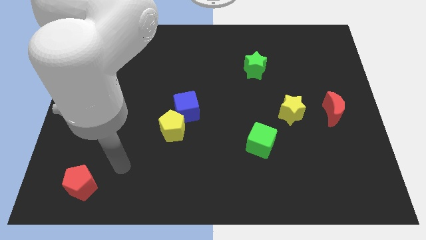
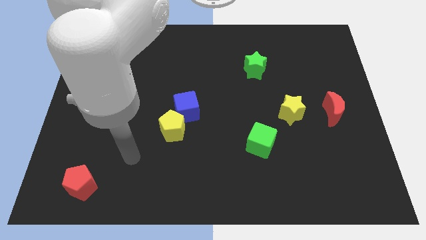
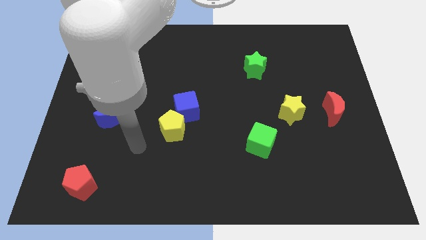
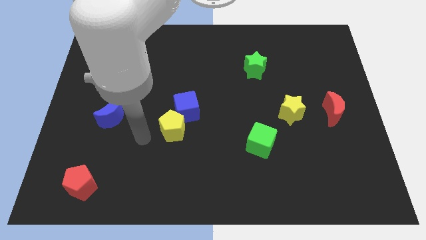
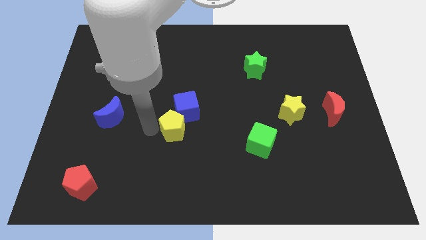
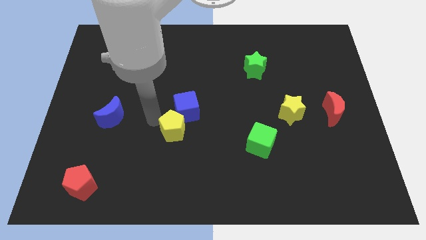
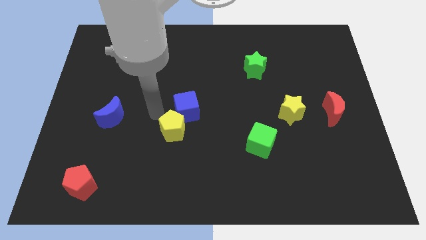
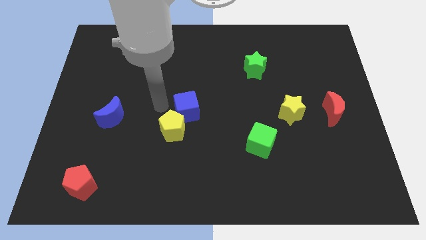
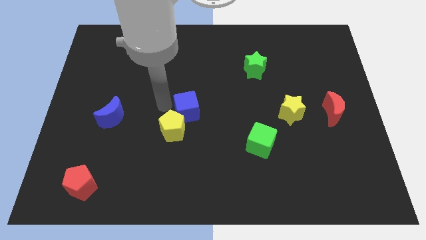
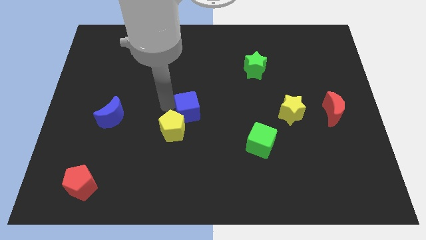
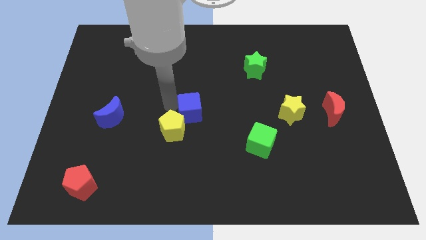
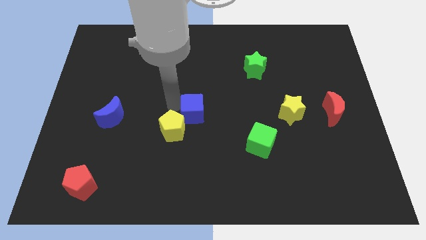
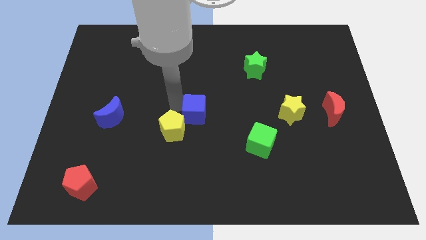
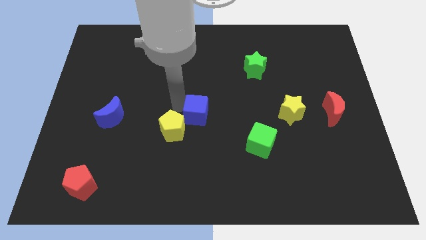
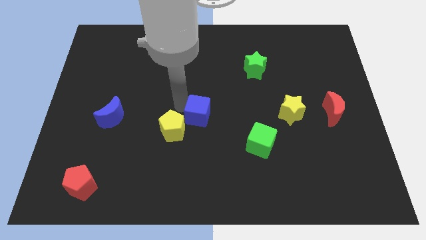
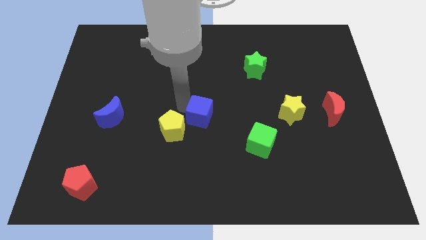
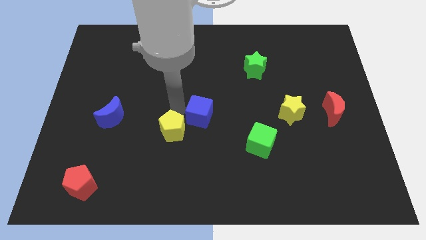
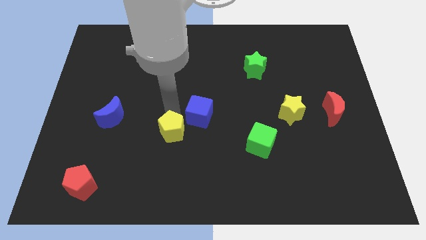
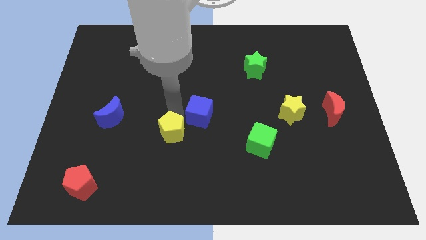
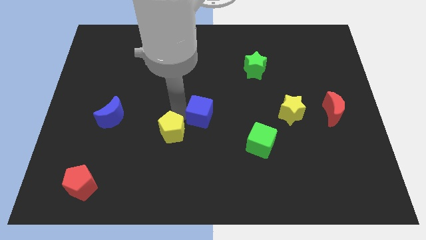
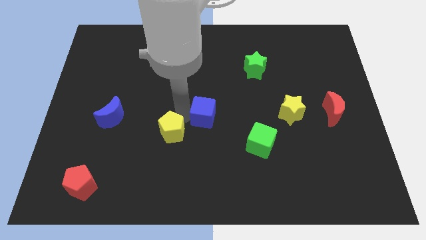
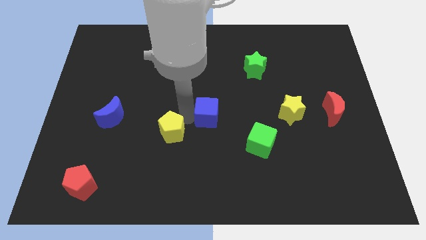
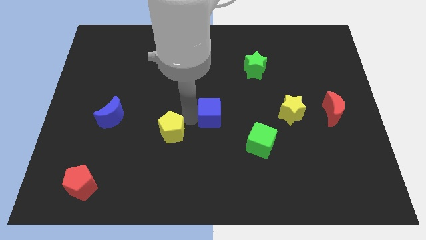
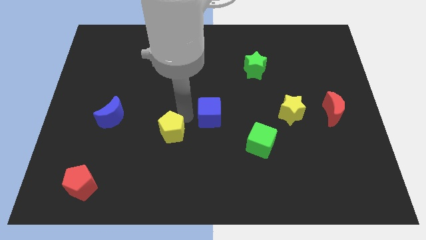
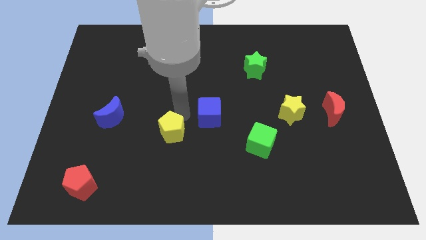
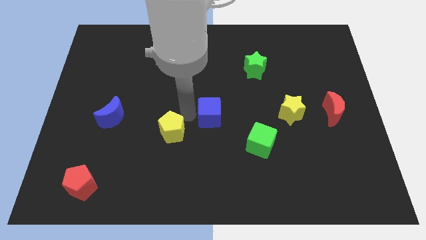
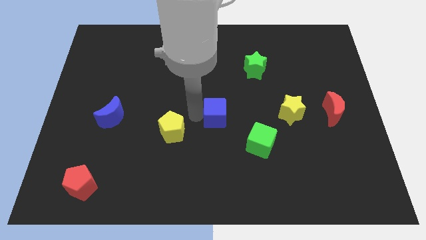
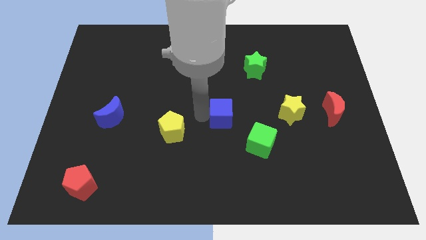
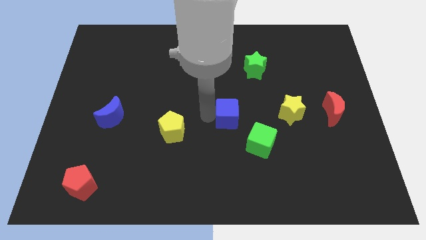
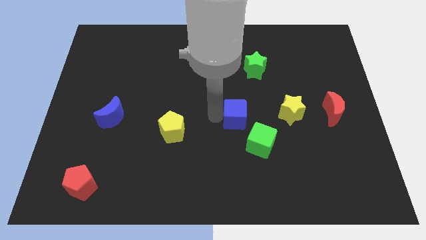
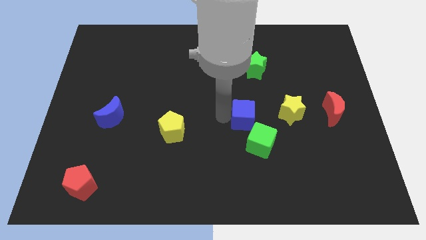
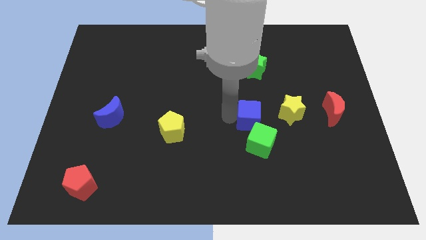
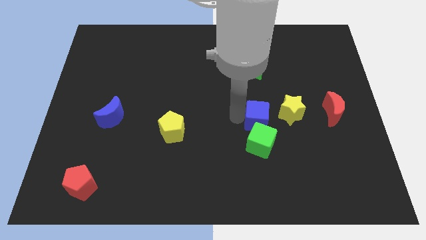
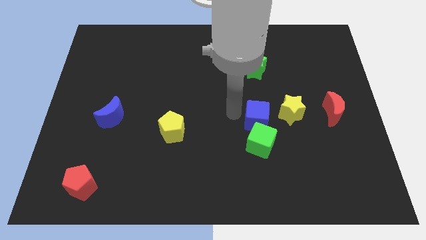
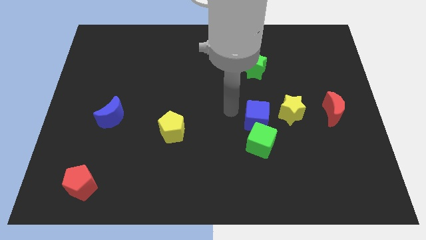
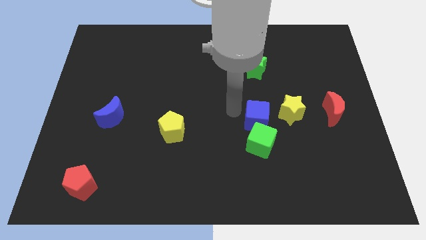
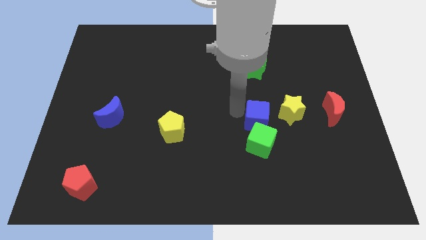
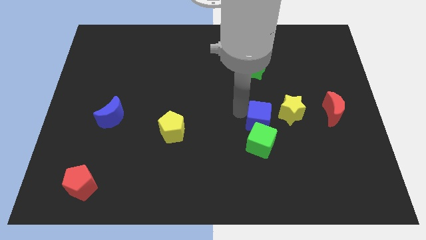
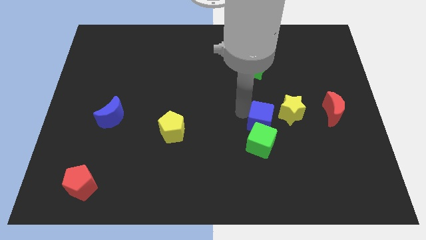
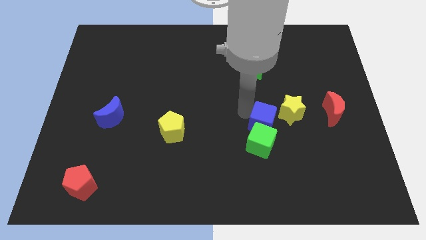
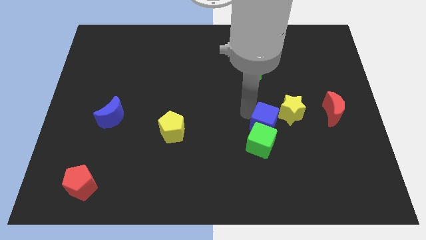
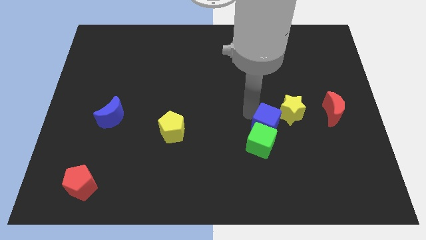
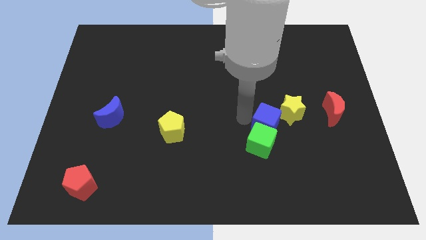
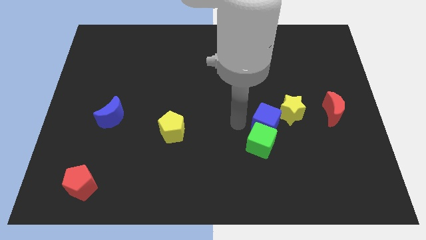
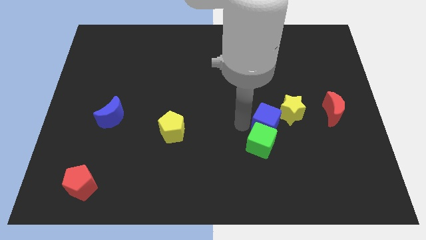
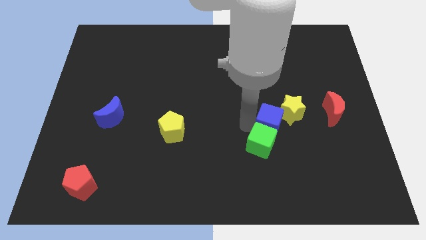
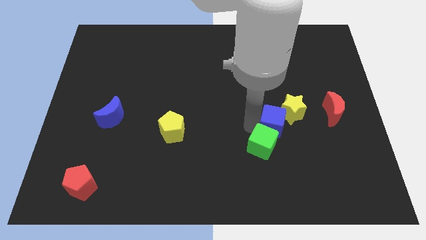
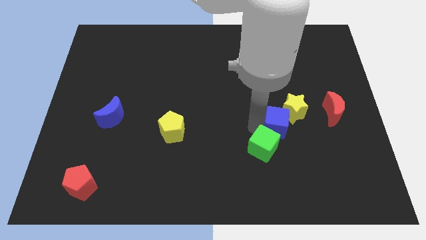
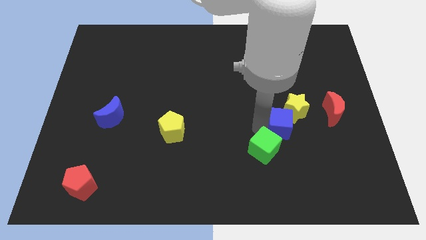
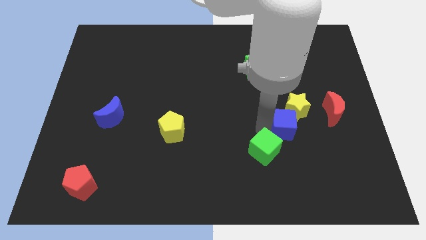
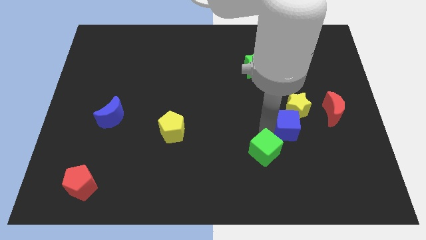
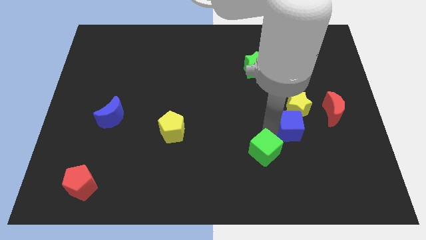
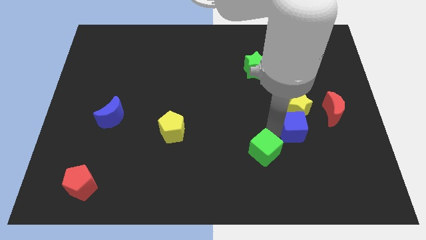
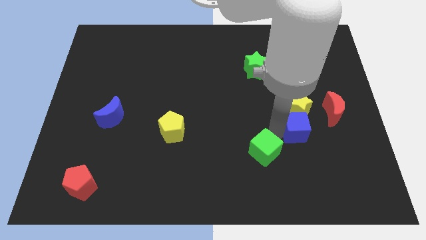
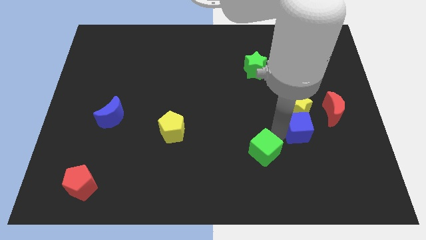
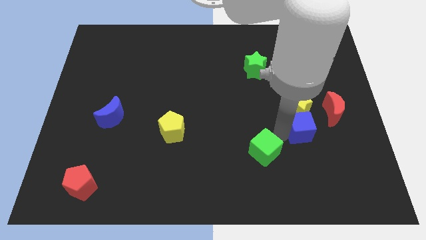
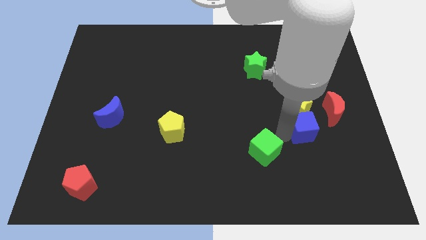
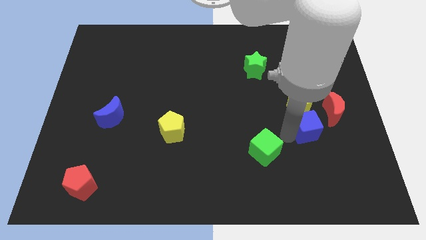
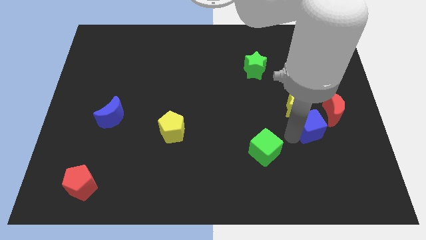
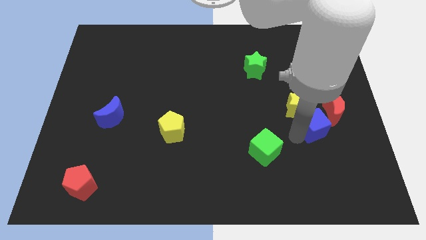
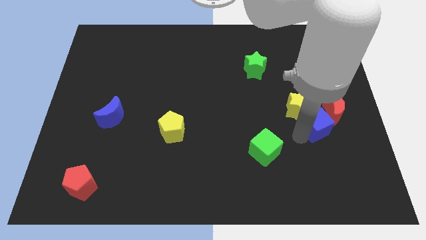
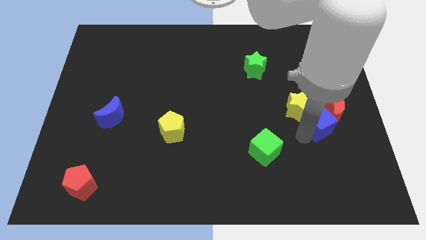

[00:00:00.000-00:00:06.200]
slide the blue cube next to the red moon

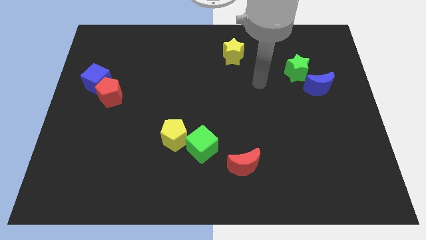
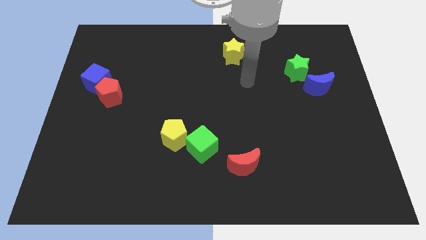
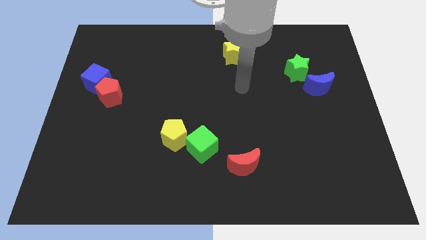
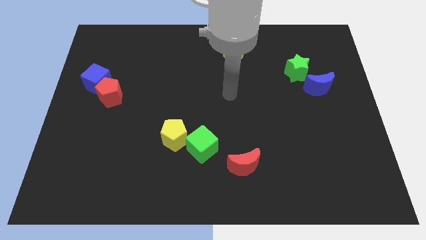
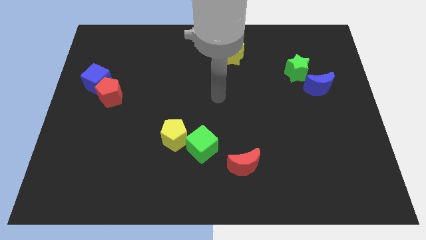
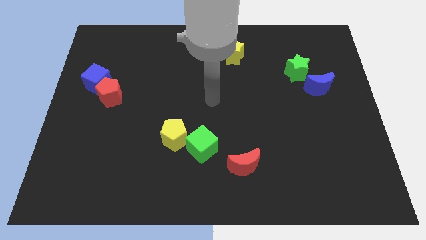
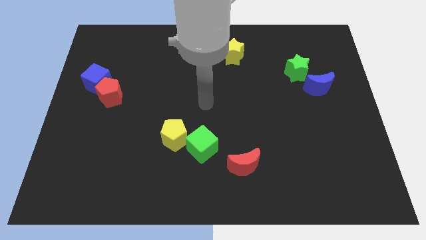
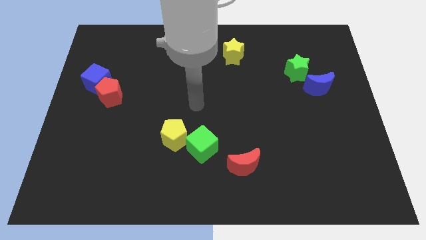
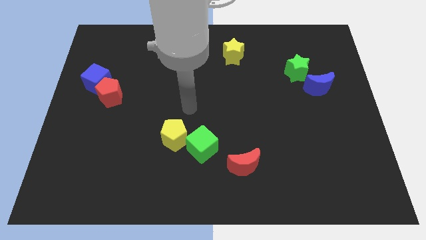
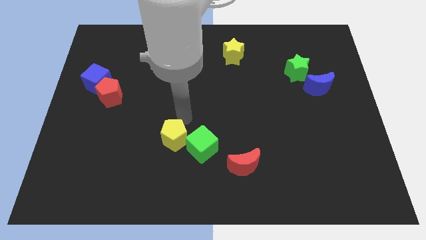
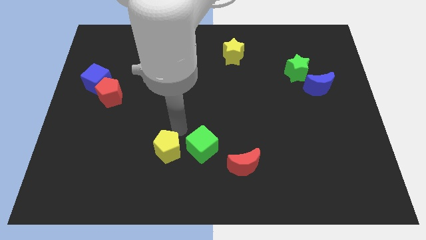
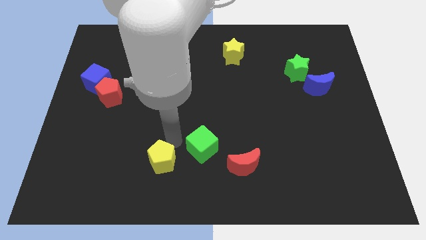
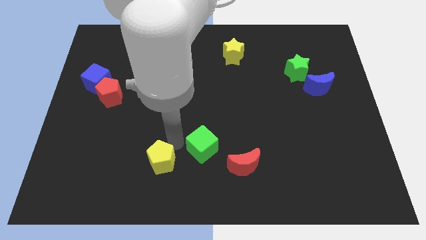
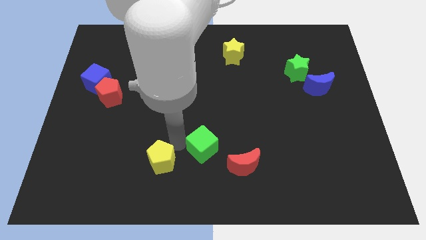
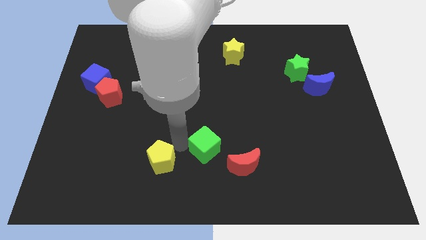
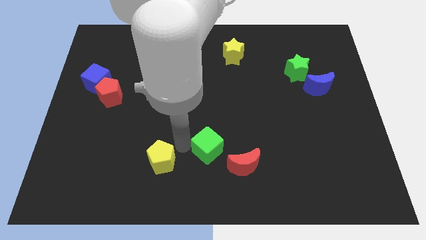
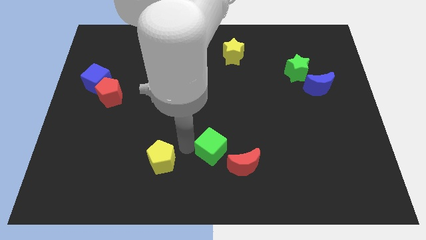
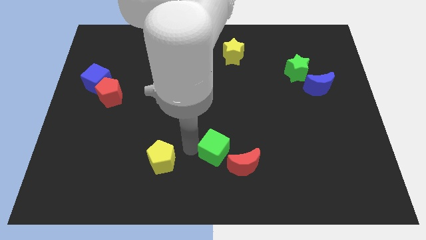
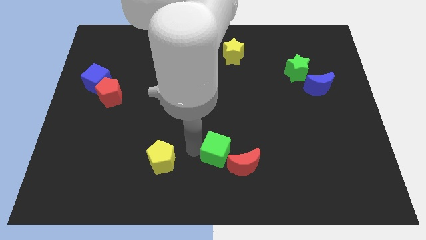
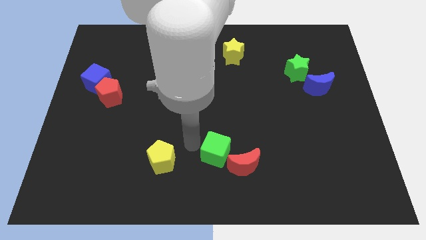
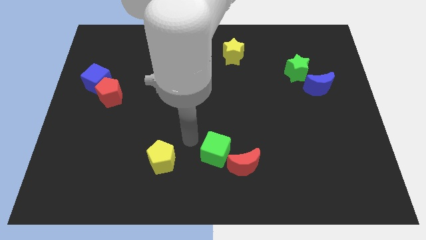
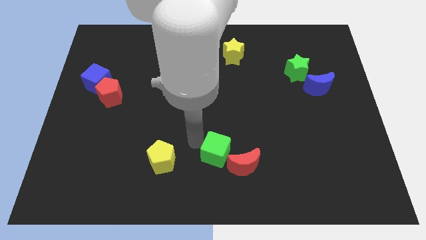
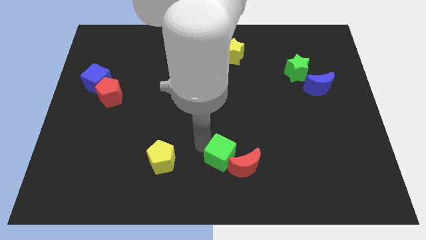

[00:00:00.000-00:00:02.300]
push the green cube to the red moon
